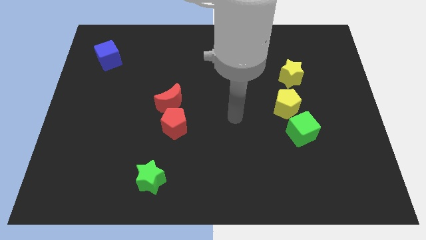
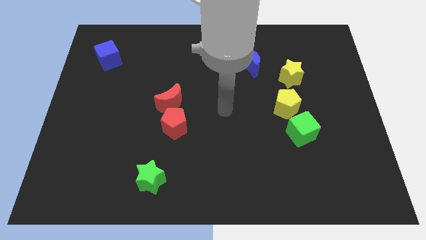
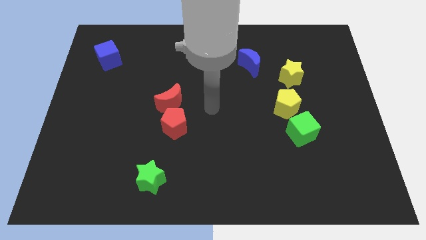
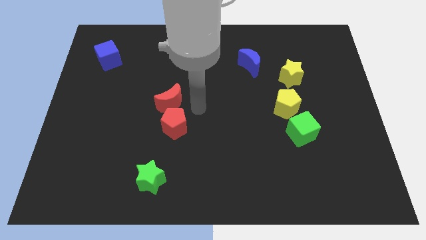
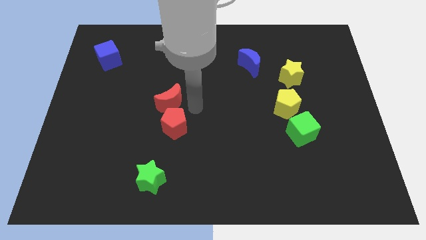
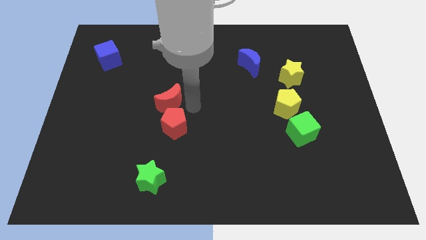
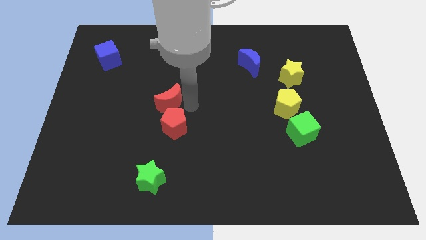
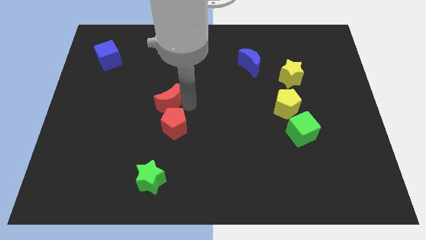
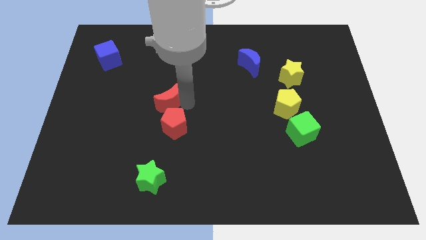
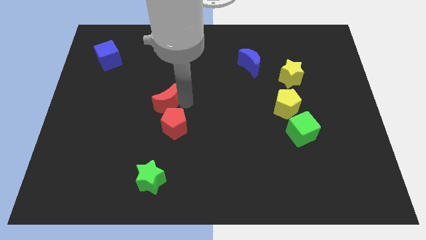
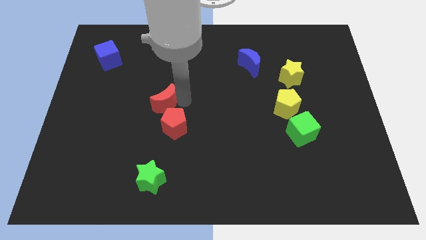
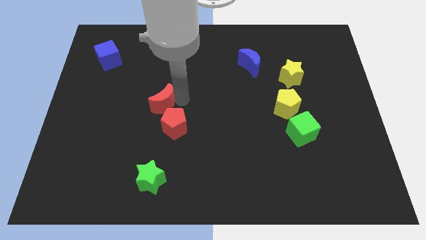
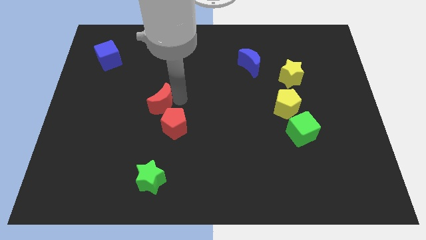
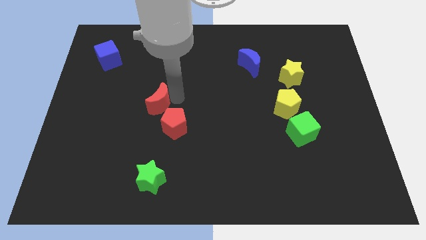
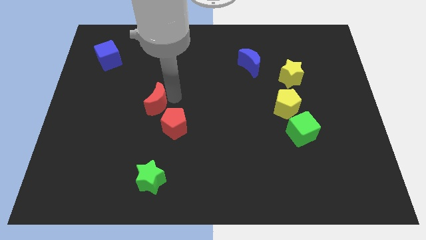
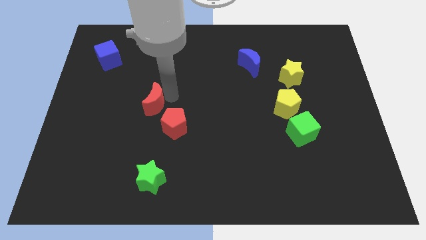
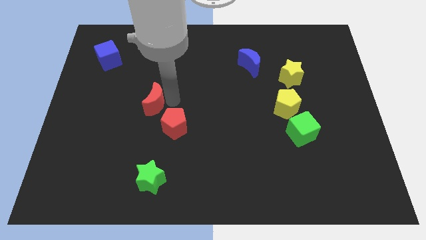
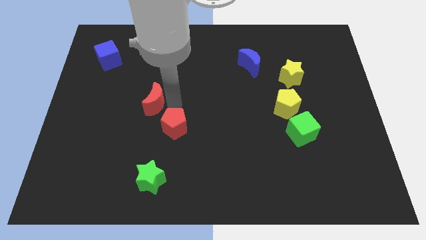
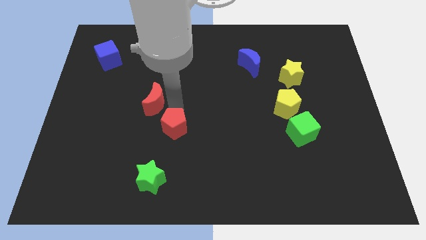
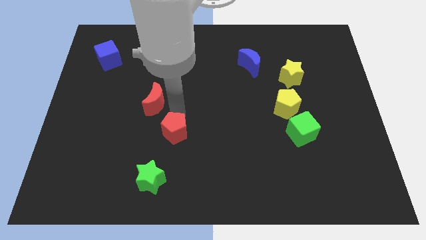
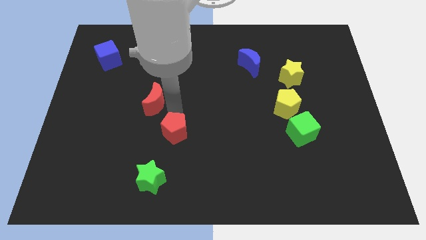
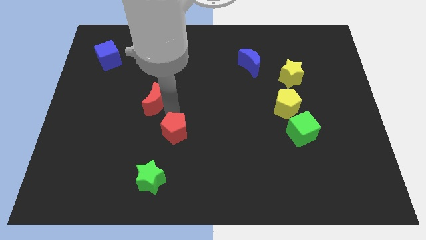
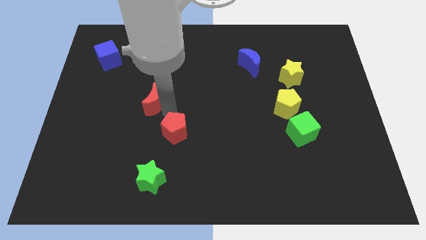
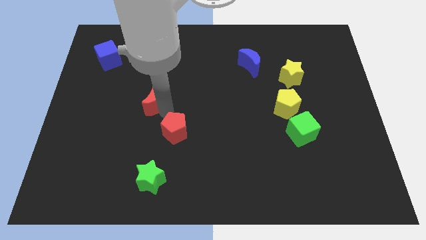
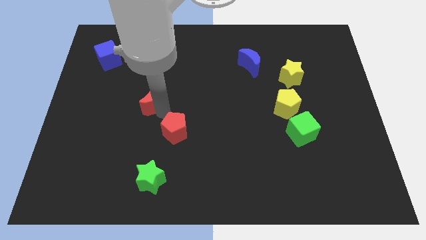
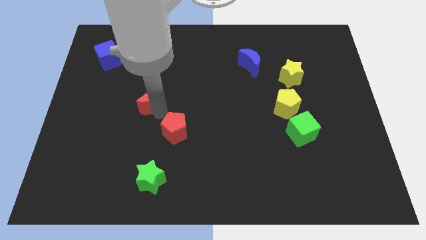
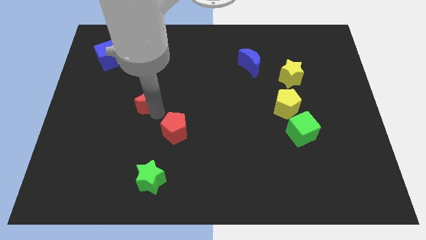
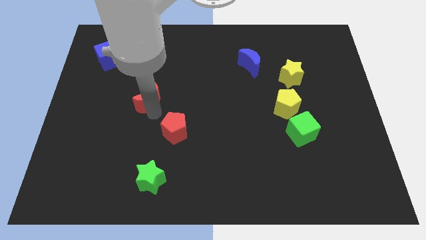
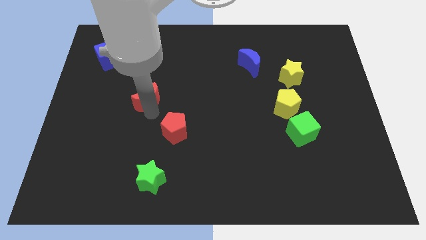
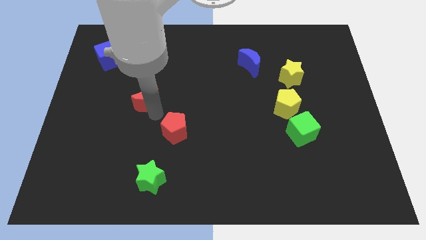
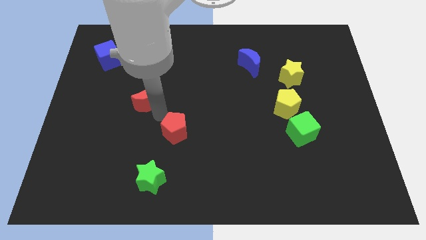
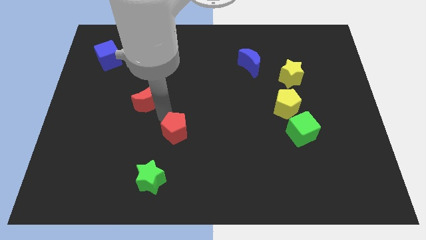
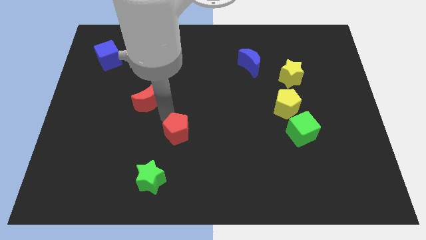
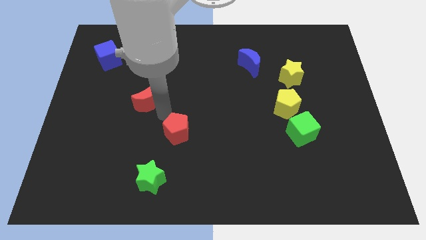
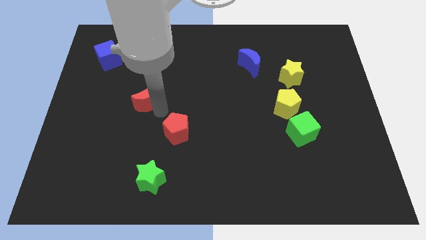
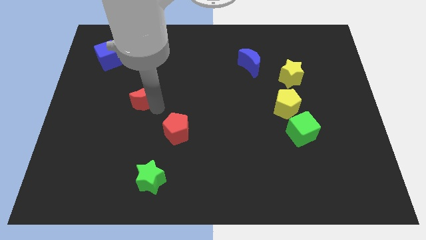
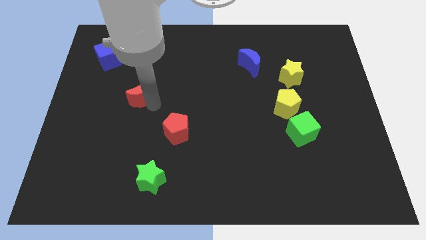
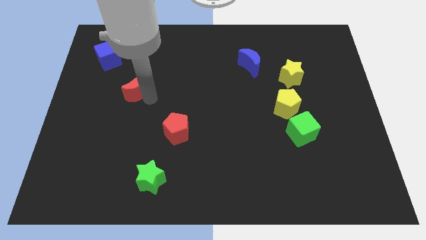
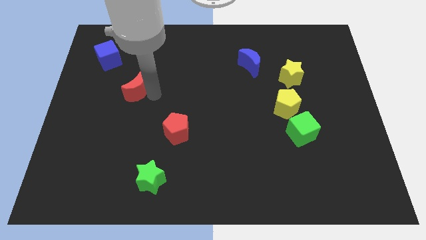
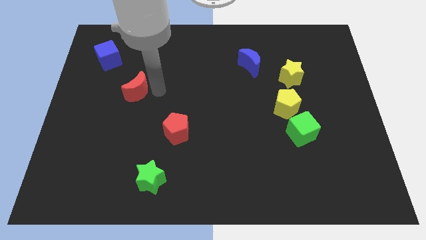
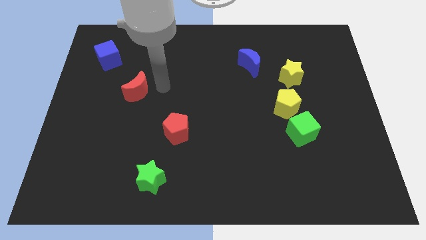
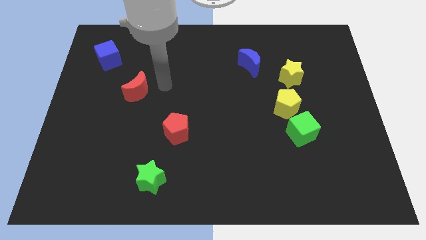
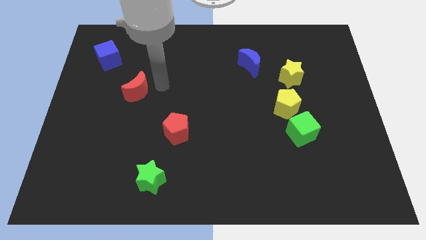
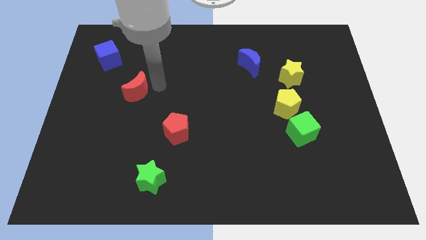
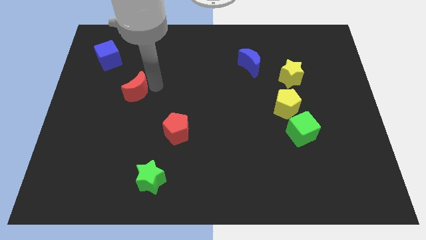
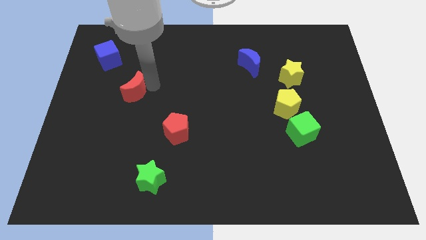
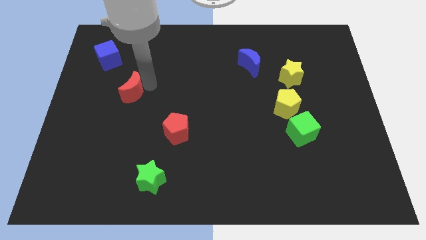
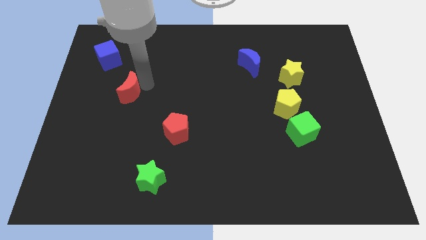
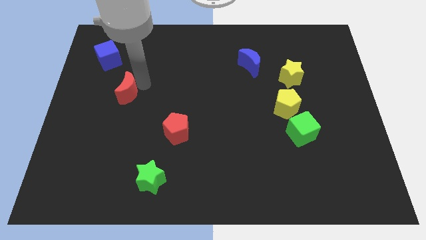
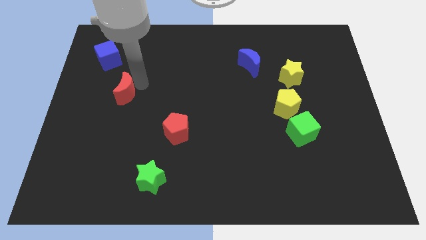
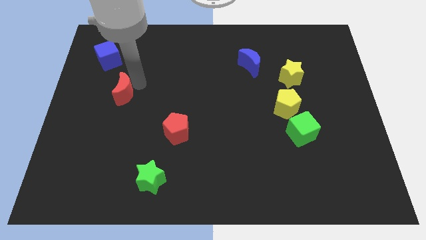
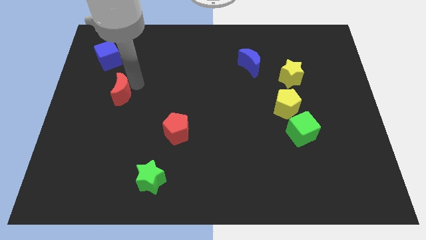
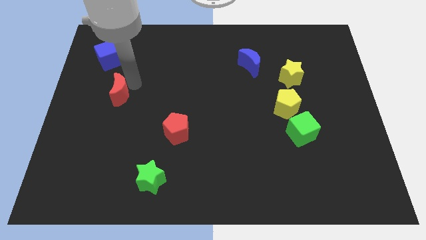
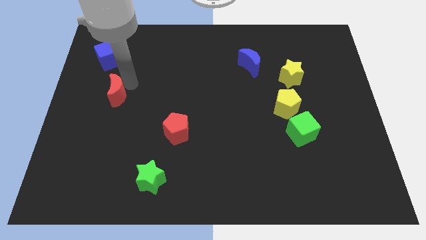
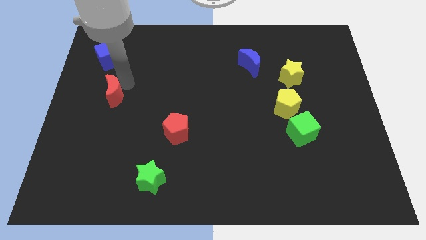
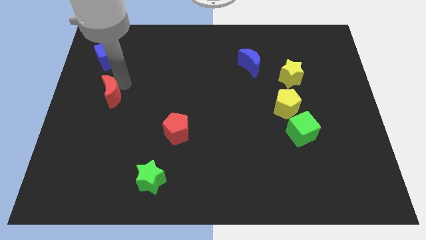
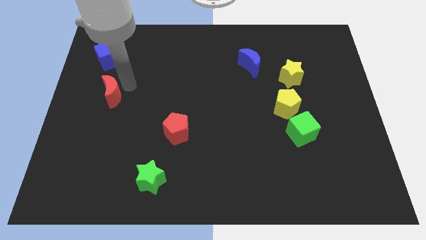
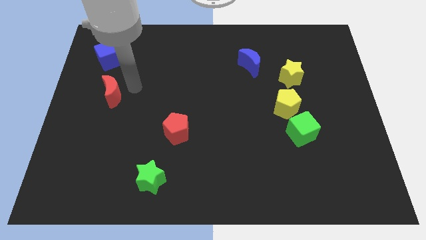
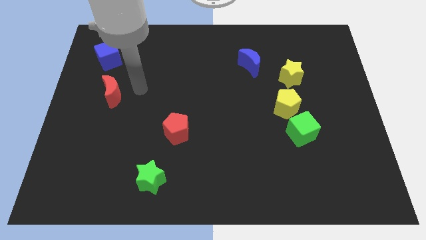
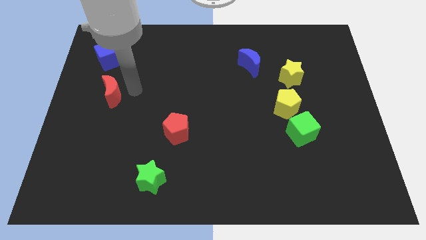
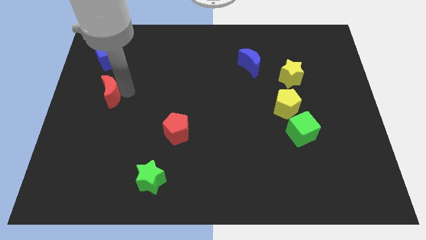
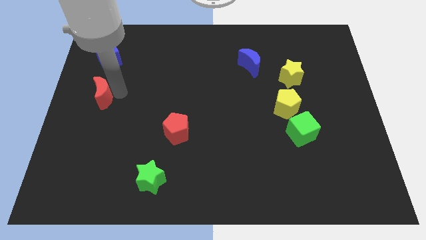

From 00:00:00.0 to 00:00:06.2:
put the red moon to the left side

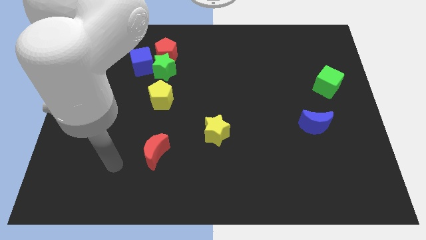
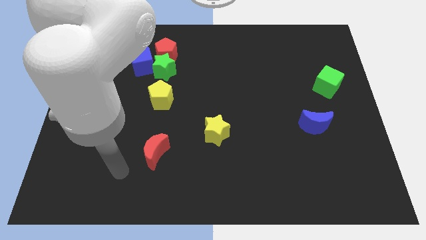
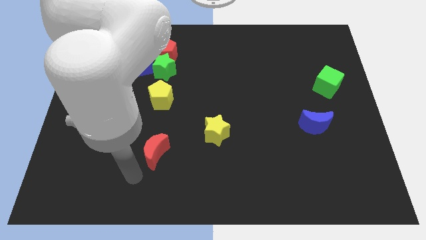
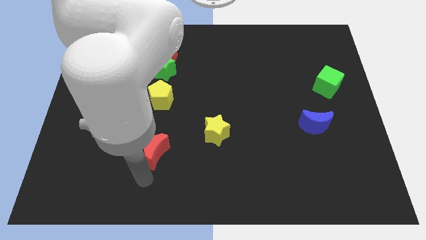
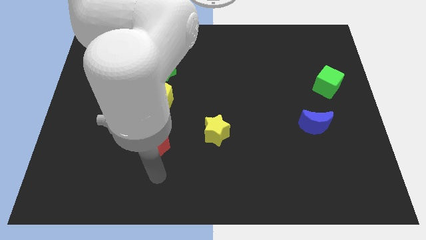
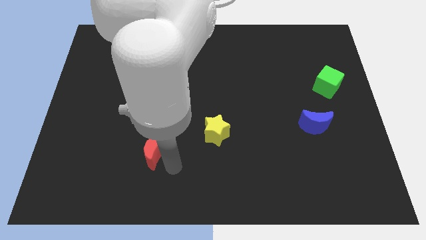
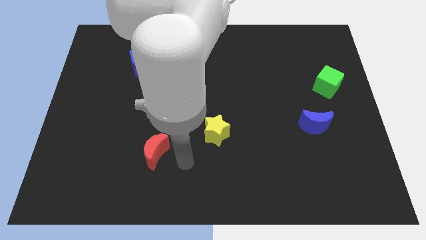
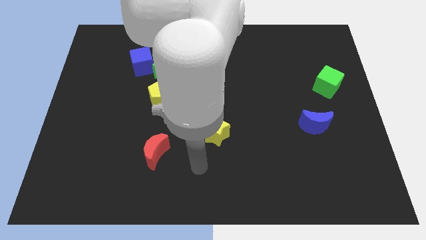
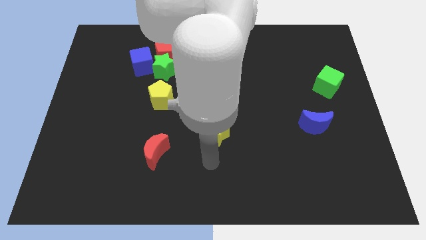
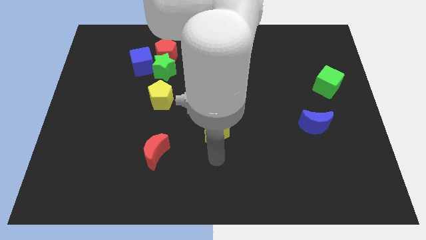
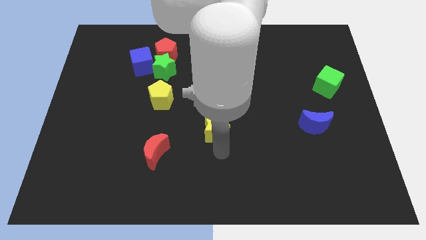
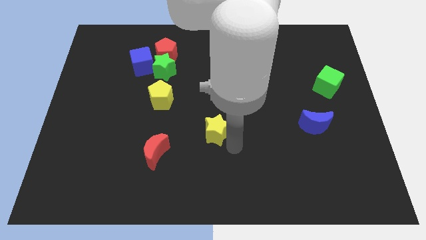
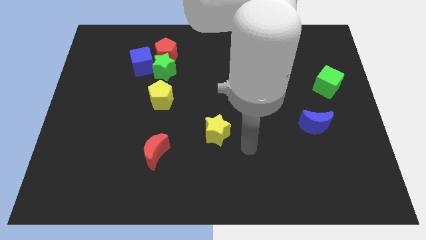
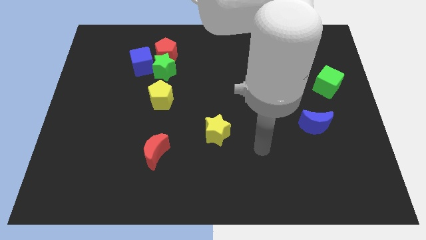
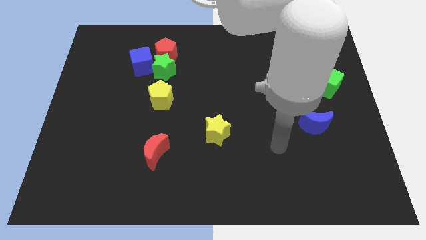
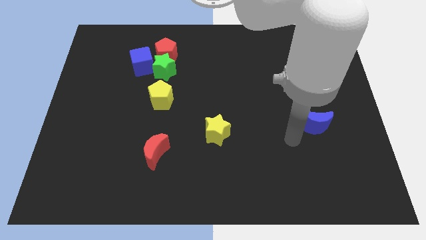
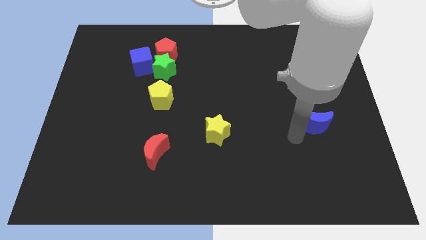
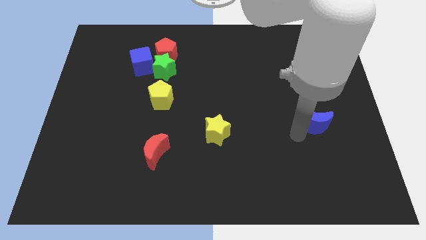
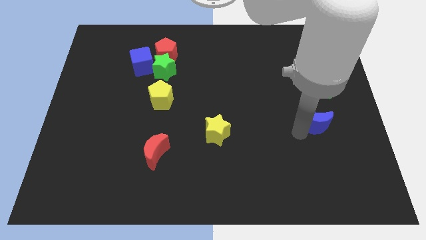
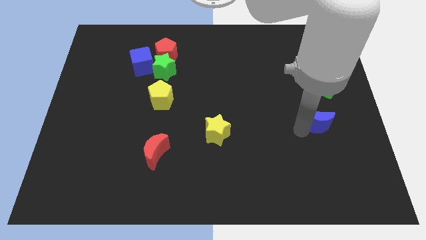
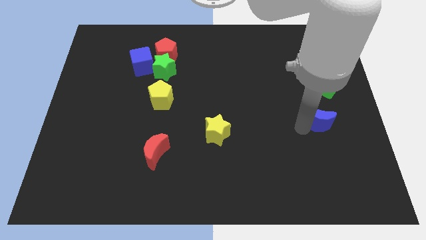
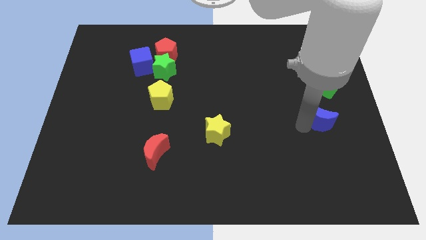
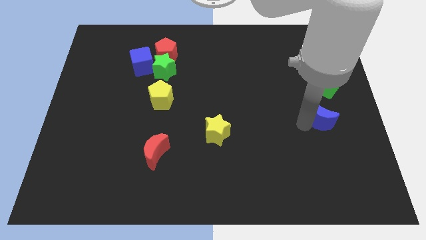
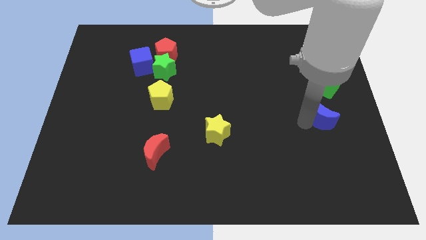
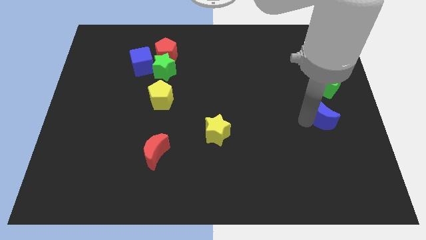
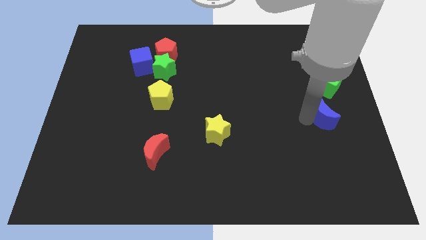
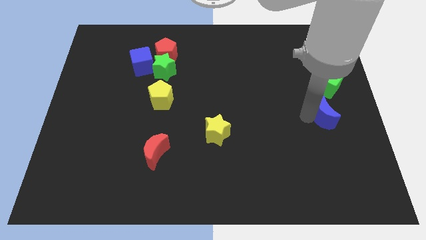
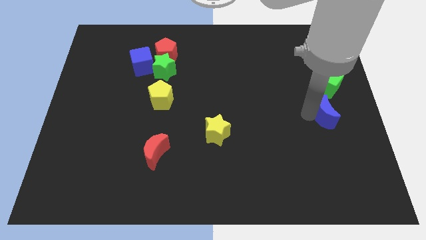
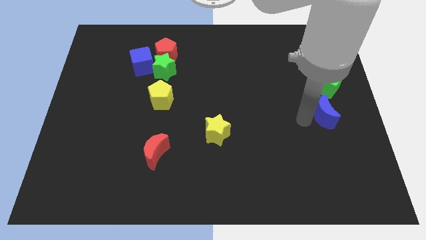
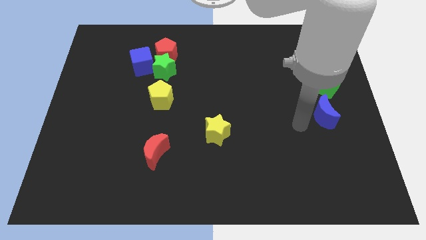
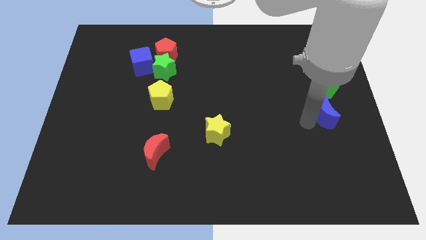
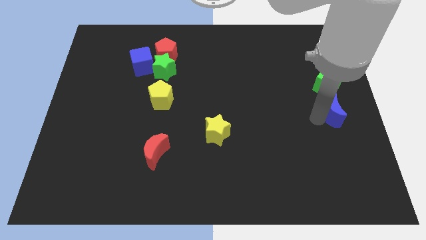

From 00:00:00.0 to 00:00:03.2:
push the blue moon to the right side
